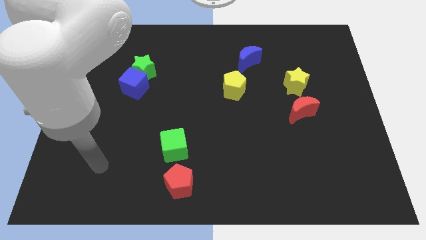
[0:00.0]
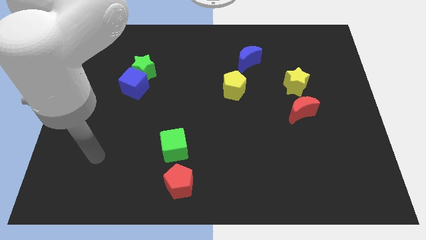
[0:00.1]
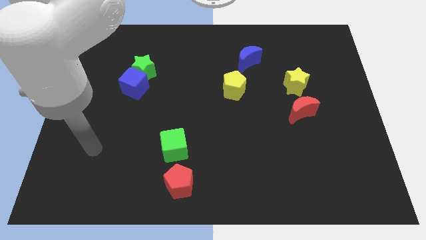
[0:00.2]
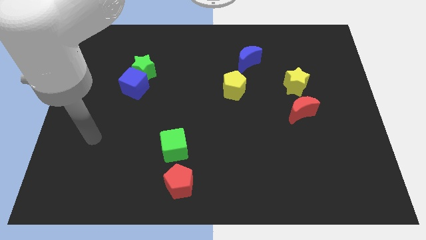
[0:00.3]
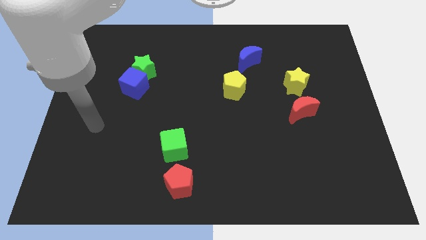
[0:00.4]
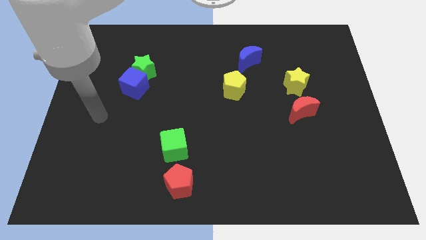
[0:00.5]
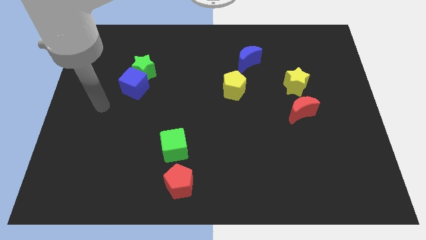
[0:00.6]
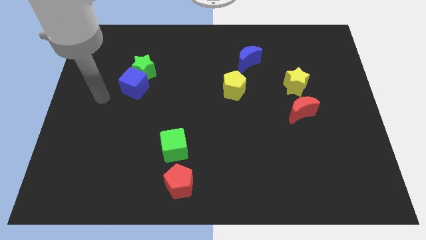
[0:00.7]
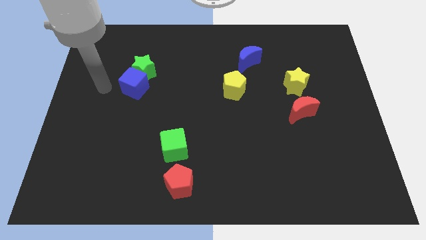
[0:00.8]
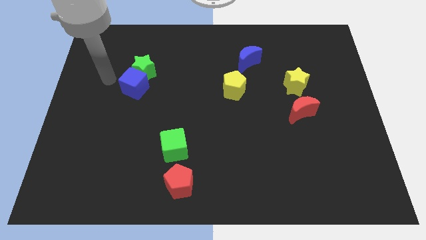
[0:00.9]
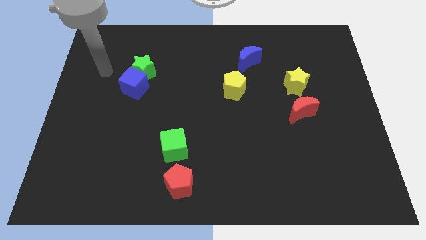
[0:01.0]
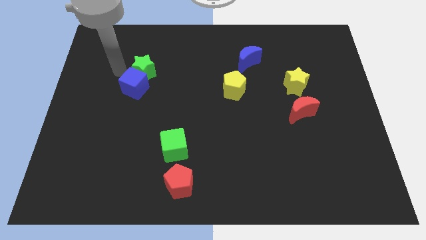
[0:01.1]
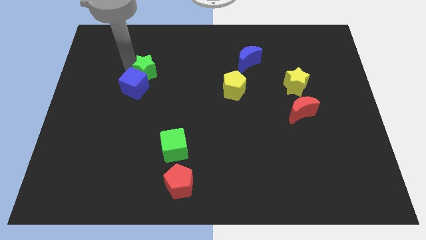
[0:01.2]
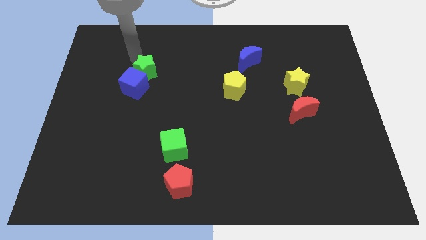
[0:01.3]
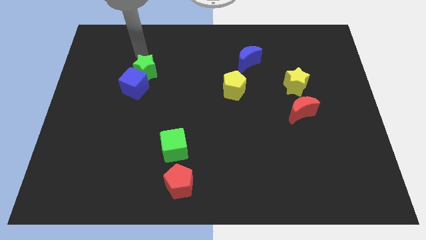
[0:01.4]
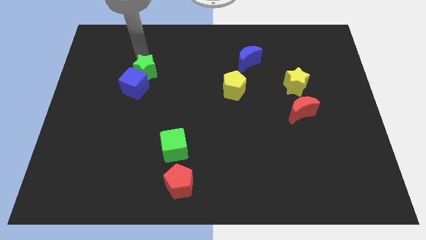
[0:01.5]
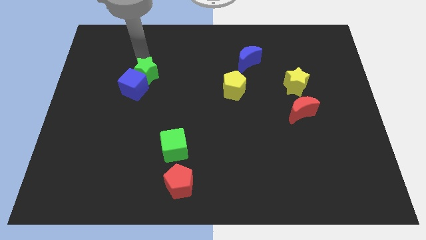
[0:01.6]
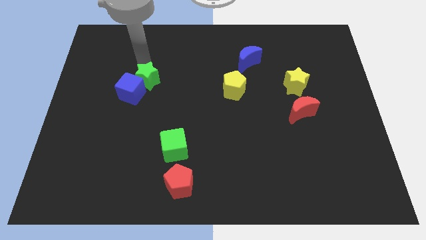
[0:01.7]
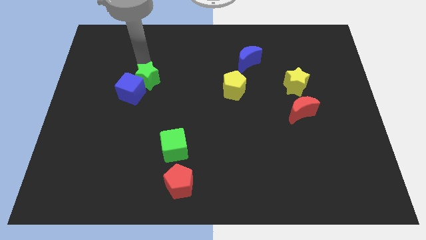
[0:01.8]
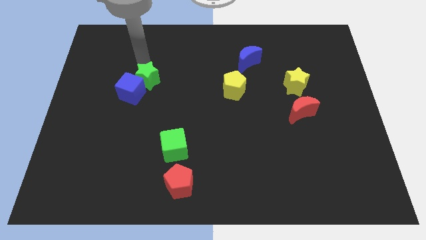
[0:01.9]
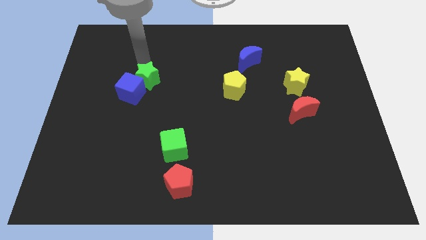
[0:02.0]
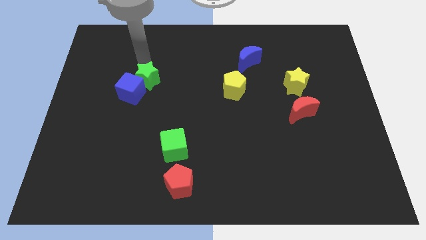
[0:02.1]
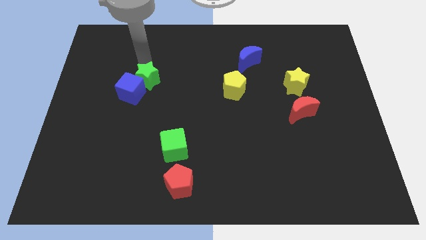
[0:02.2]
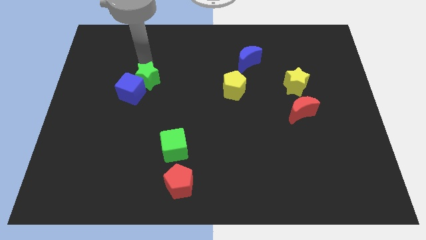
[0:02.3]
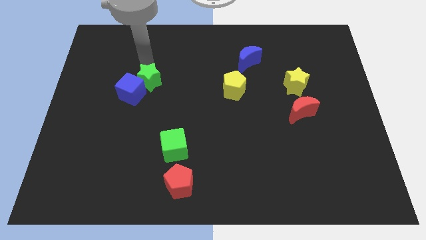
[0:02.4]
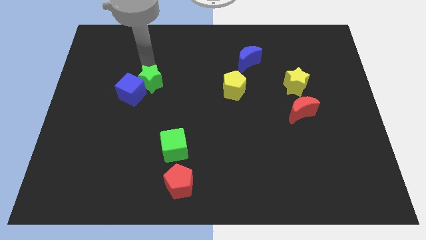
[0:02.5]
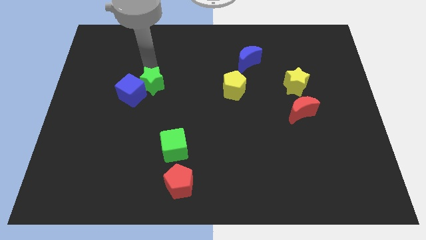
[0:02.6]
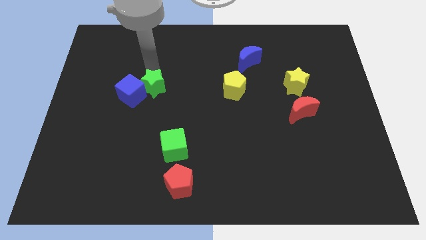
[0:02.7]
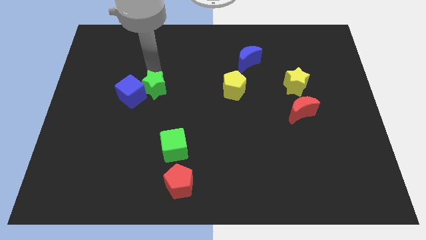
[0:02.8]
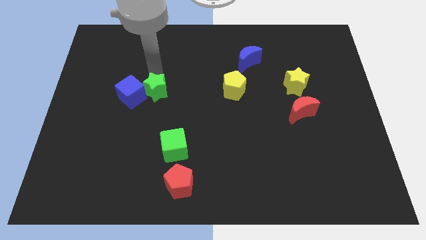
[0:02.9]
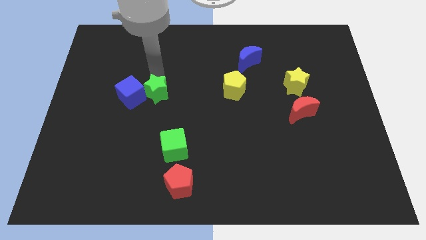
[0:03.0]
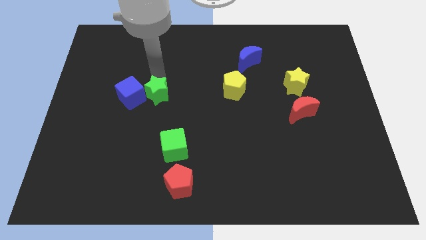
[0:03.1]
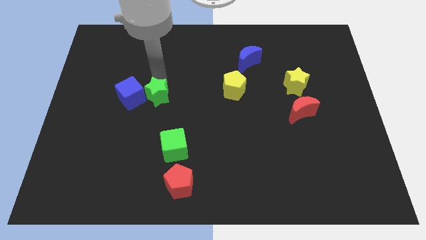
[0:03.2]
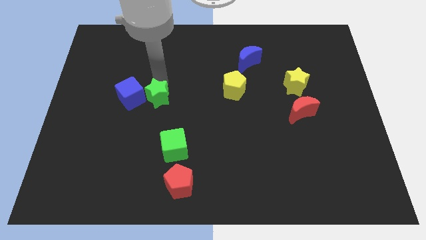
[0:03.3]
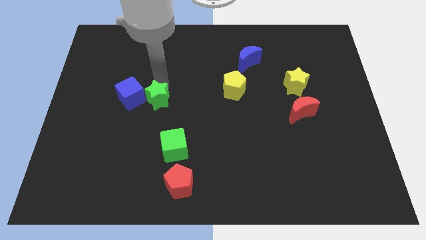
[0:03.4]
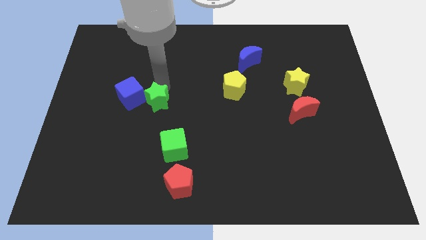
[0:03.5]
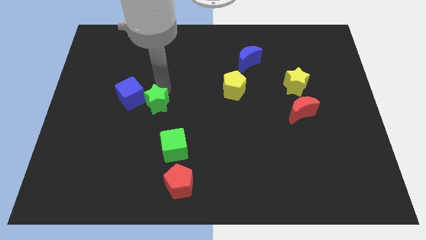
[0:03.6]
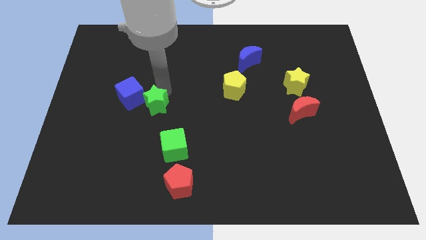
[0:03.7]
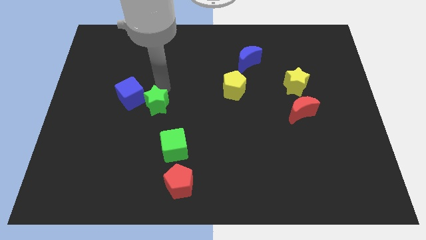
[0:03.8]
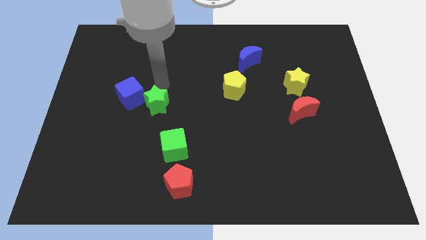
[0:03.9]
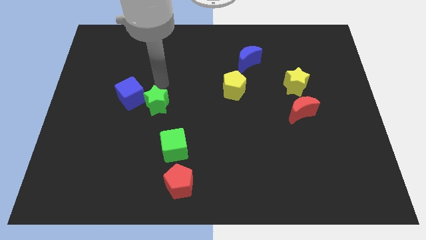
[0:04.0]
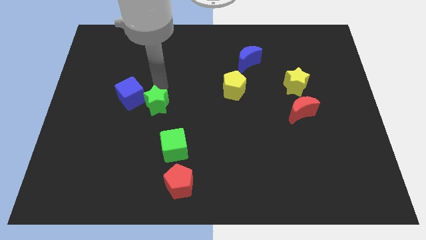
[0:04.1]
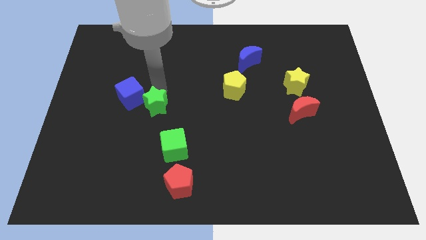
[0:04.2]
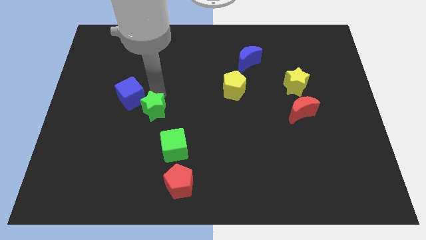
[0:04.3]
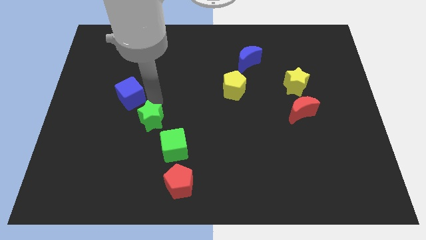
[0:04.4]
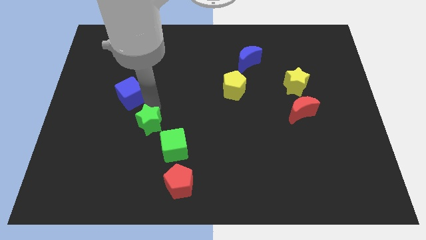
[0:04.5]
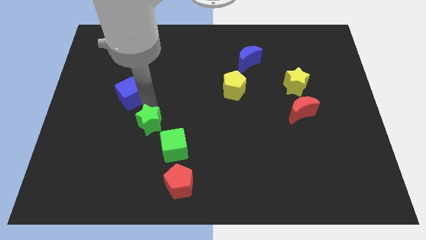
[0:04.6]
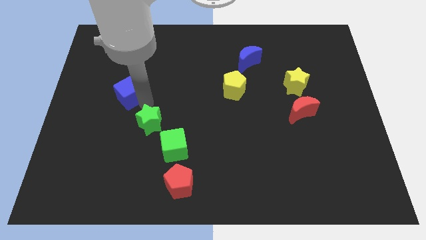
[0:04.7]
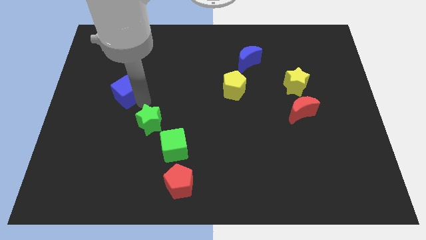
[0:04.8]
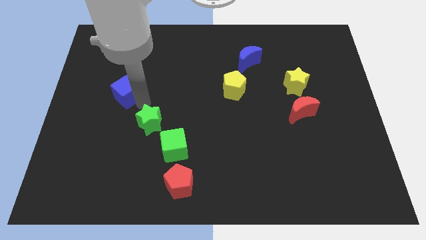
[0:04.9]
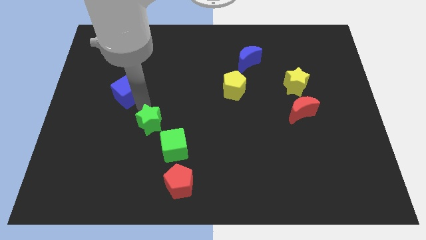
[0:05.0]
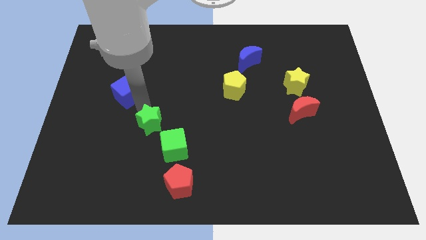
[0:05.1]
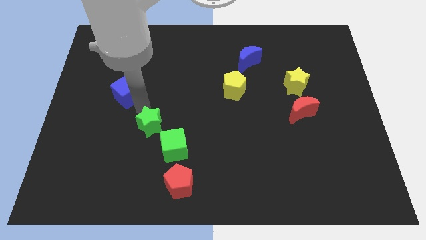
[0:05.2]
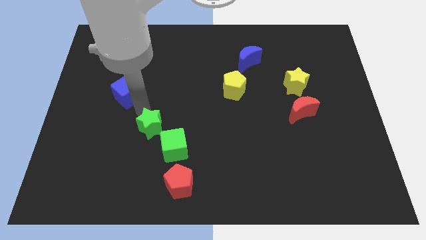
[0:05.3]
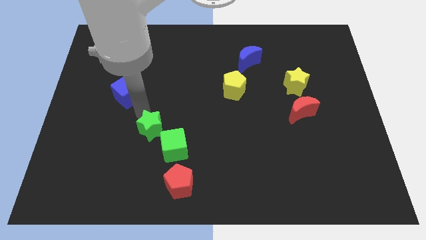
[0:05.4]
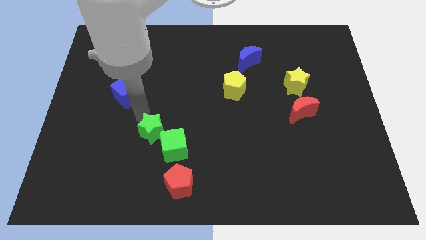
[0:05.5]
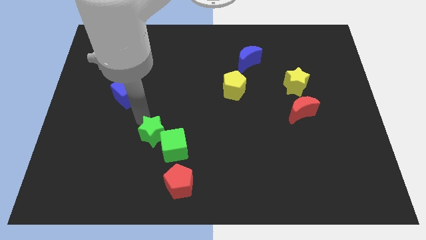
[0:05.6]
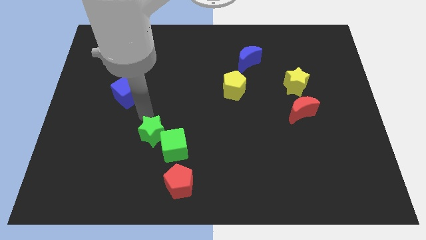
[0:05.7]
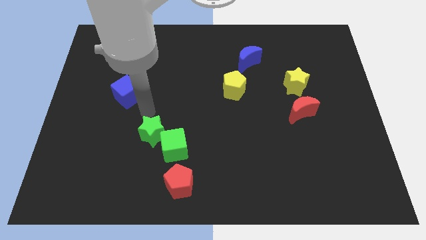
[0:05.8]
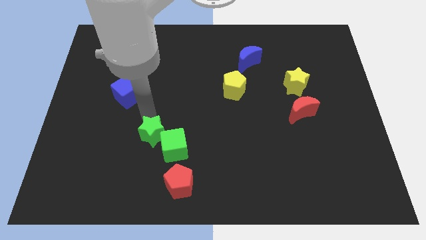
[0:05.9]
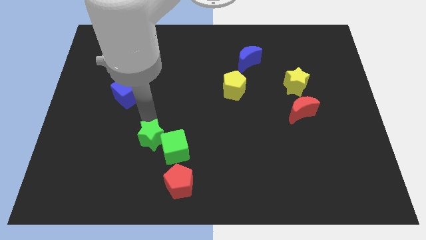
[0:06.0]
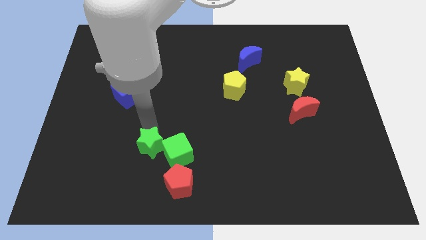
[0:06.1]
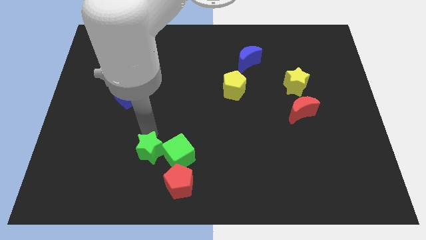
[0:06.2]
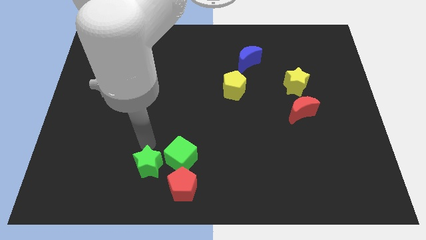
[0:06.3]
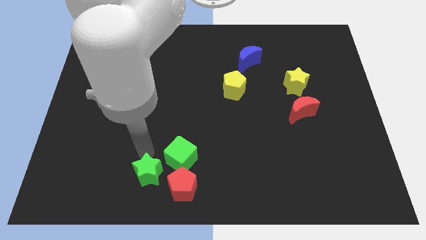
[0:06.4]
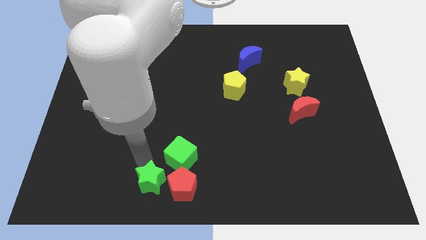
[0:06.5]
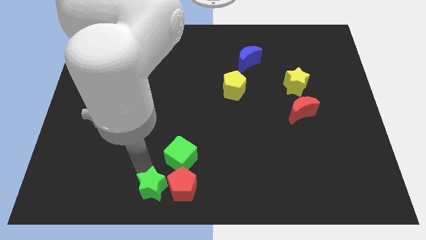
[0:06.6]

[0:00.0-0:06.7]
slide the green star next to the red pentagon

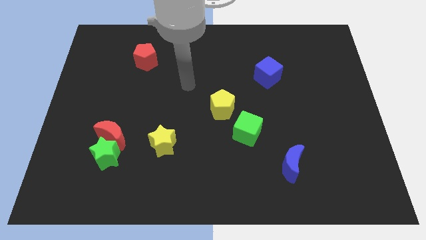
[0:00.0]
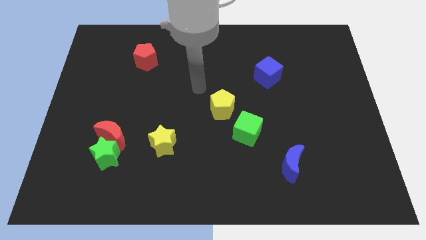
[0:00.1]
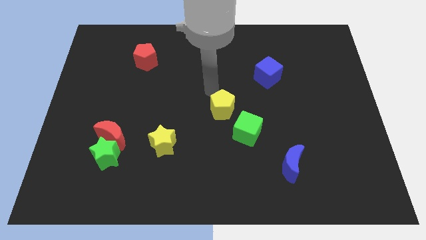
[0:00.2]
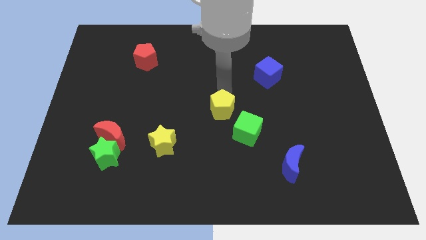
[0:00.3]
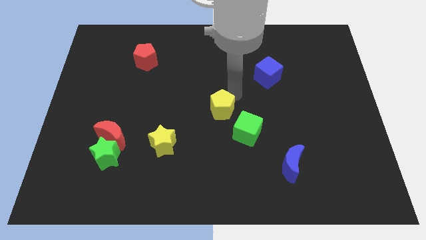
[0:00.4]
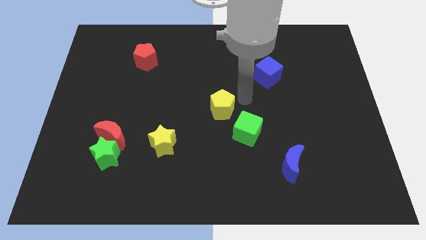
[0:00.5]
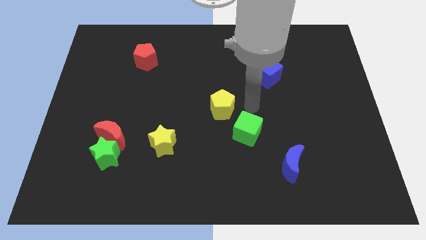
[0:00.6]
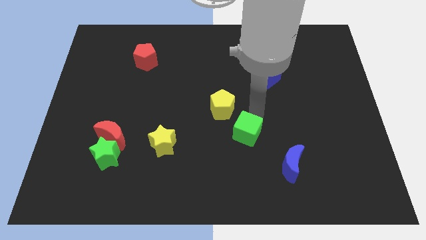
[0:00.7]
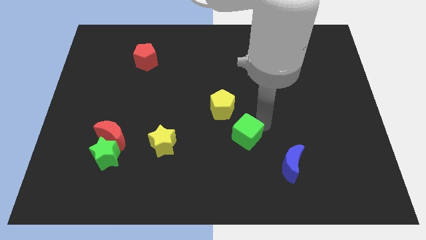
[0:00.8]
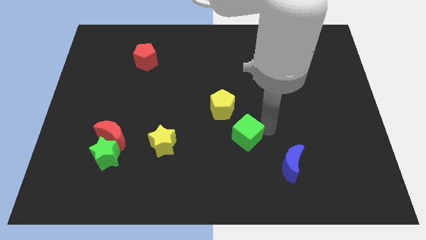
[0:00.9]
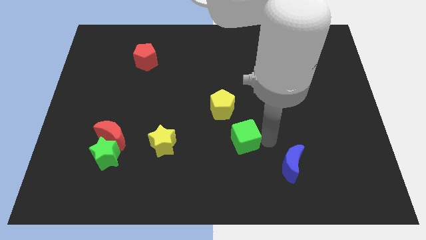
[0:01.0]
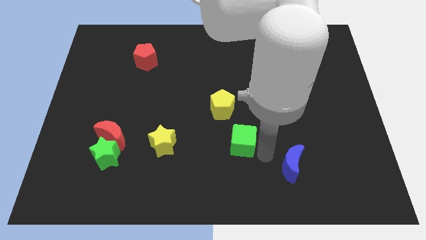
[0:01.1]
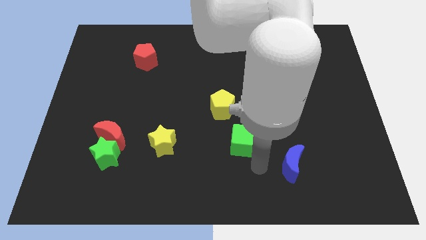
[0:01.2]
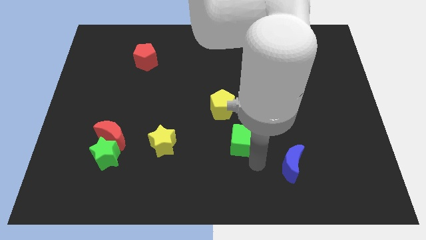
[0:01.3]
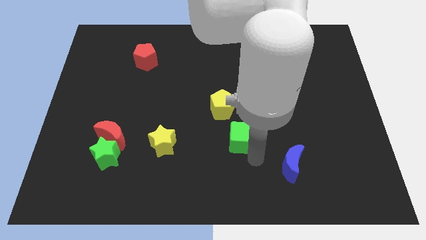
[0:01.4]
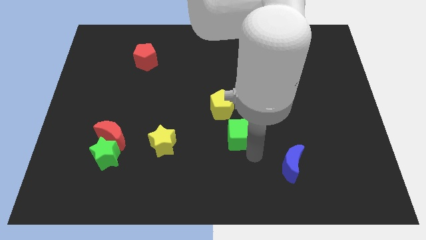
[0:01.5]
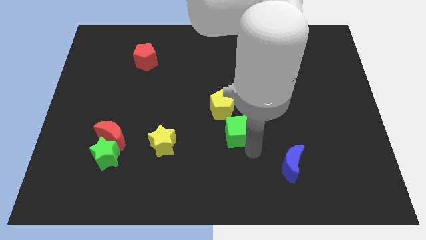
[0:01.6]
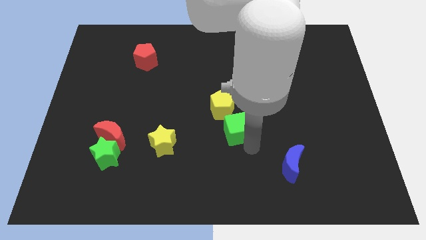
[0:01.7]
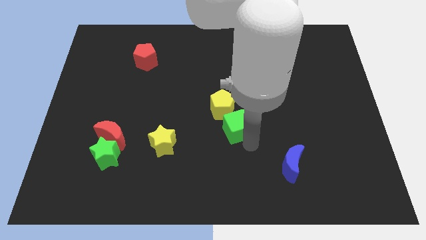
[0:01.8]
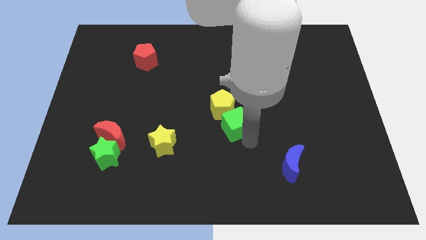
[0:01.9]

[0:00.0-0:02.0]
move the green cube to the yellow pentagon
